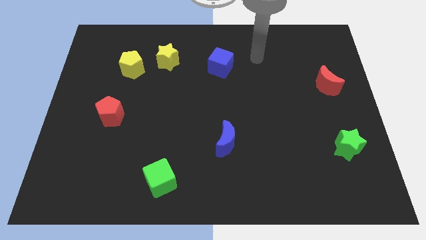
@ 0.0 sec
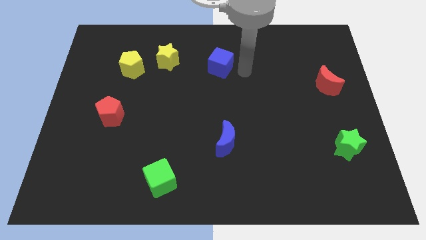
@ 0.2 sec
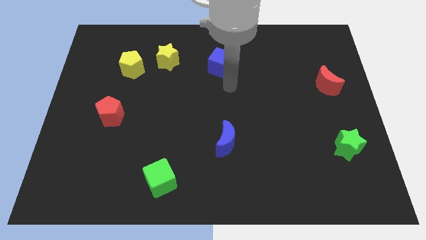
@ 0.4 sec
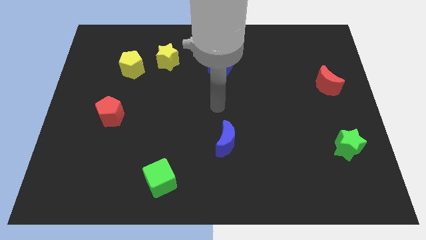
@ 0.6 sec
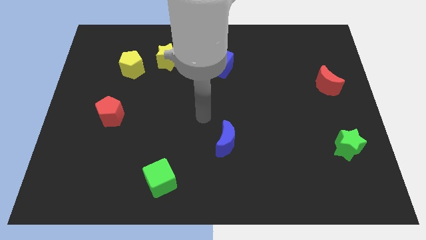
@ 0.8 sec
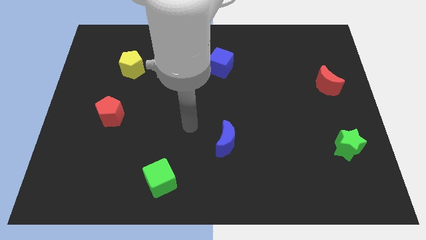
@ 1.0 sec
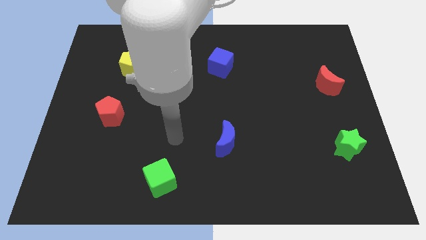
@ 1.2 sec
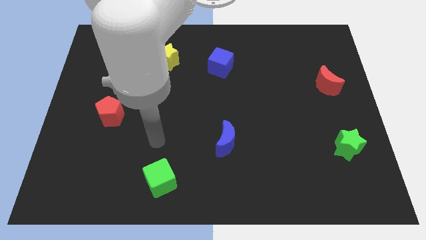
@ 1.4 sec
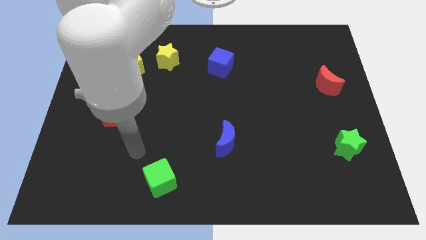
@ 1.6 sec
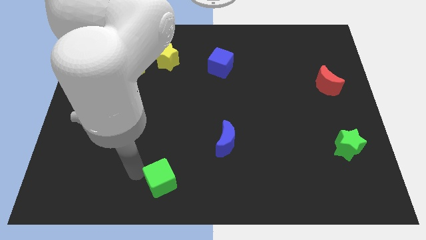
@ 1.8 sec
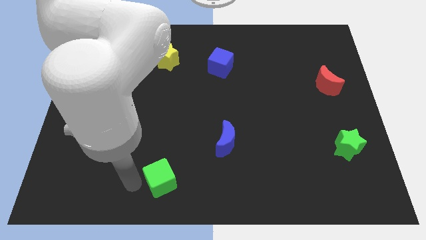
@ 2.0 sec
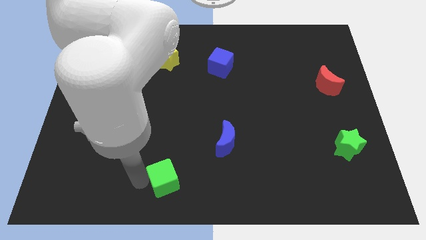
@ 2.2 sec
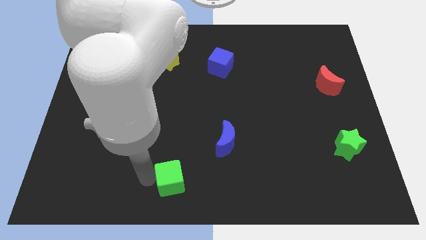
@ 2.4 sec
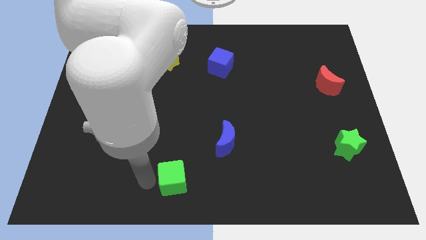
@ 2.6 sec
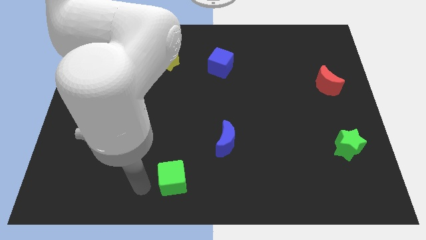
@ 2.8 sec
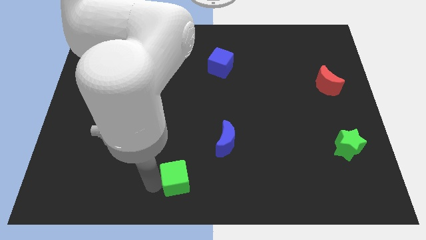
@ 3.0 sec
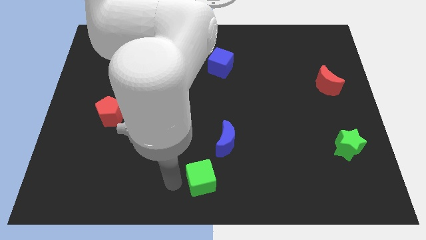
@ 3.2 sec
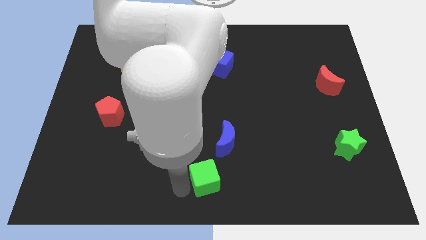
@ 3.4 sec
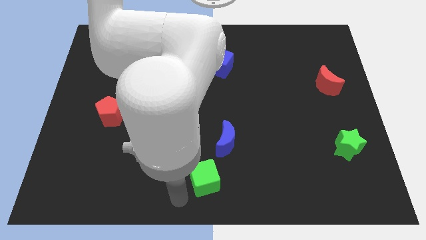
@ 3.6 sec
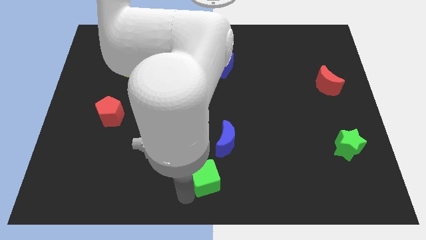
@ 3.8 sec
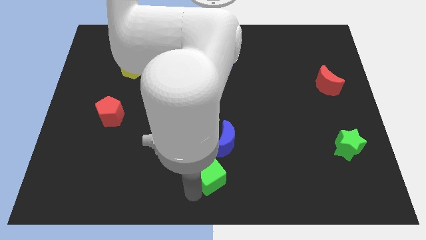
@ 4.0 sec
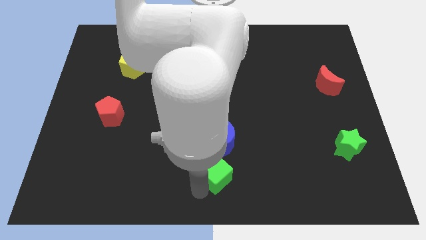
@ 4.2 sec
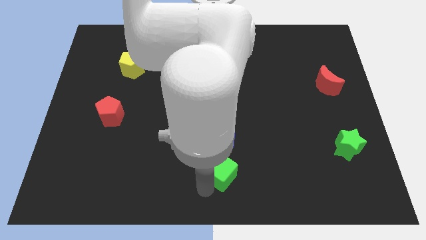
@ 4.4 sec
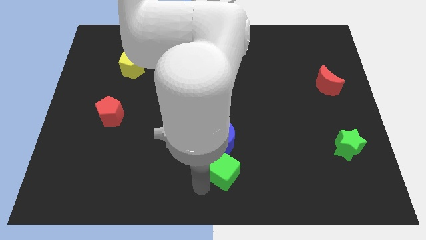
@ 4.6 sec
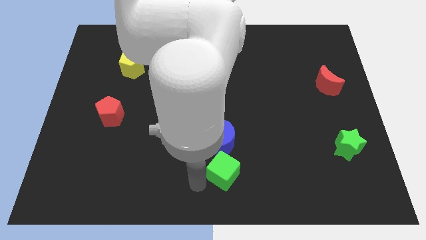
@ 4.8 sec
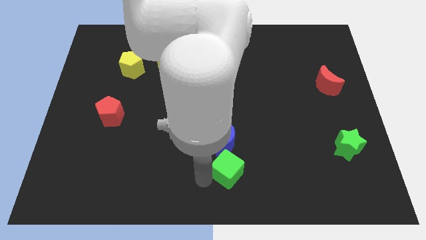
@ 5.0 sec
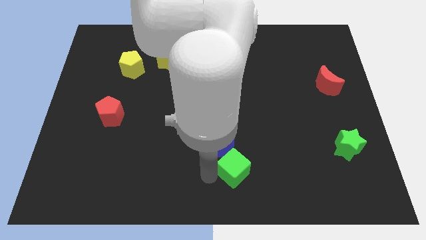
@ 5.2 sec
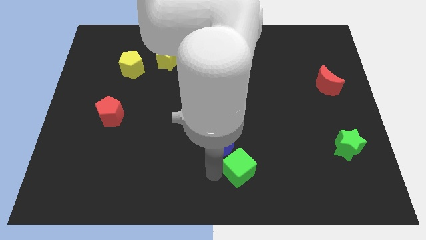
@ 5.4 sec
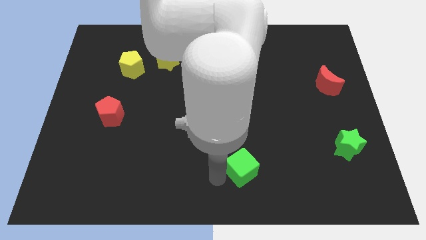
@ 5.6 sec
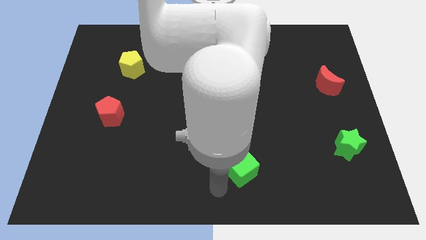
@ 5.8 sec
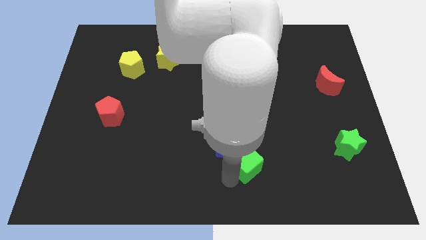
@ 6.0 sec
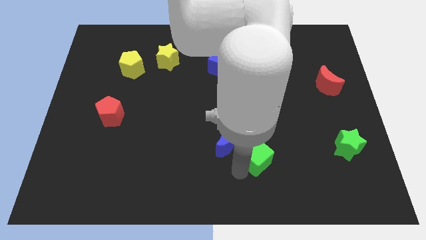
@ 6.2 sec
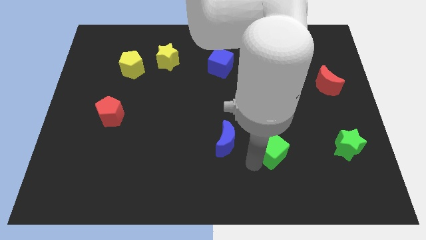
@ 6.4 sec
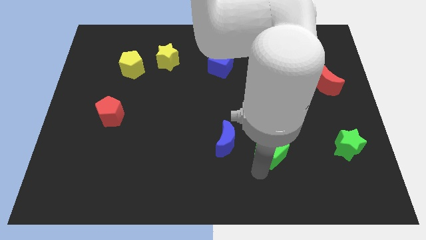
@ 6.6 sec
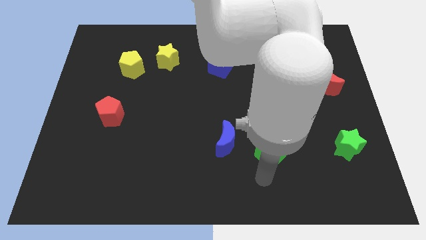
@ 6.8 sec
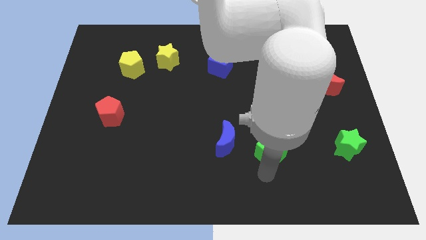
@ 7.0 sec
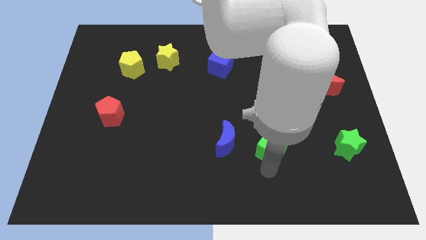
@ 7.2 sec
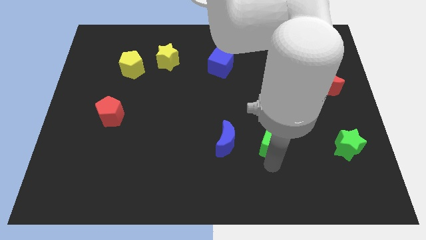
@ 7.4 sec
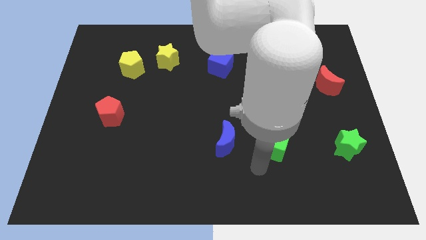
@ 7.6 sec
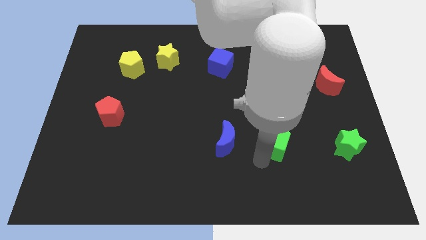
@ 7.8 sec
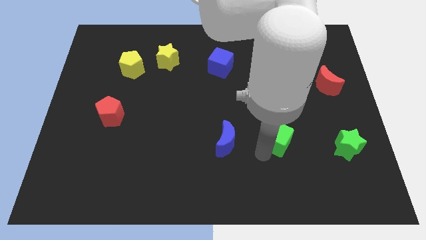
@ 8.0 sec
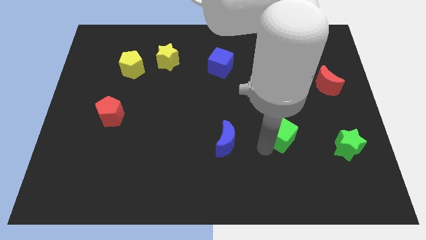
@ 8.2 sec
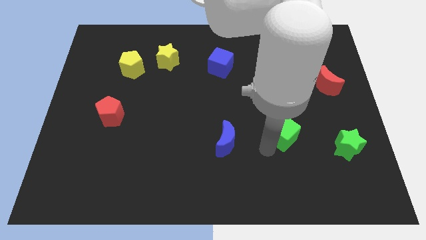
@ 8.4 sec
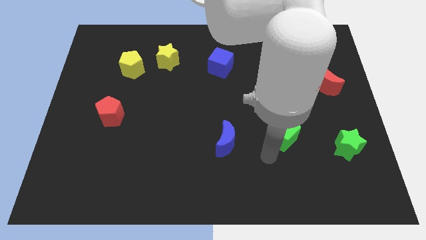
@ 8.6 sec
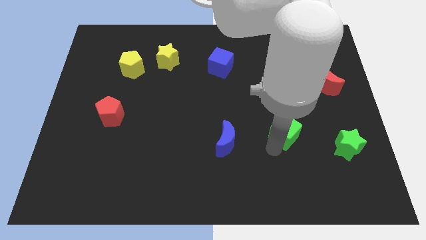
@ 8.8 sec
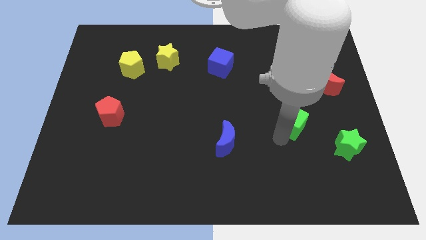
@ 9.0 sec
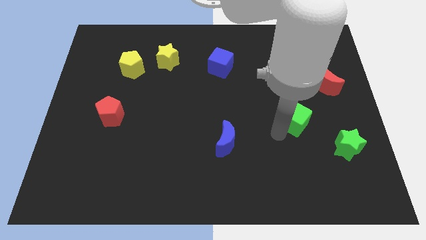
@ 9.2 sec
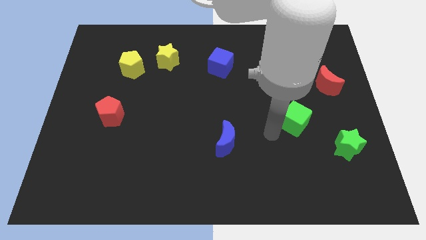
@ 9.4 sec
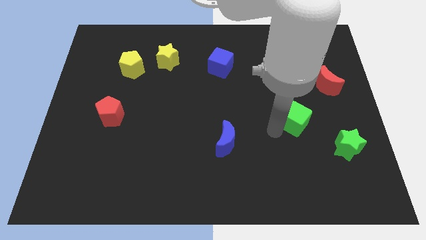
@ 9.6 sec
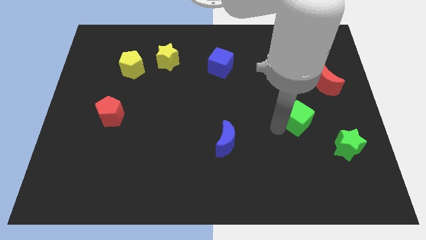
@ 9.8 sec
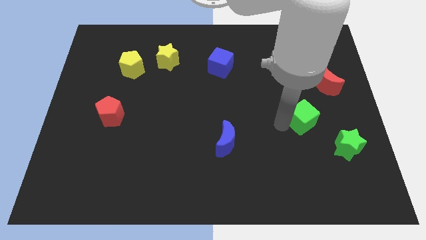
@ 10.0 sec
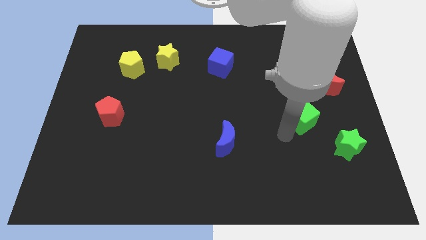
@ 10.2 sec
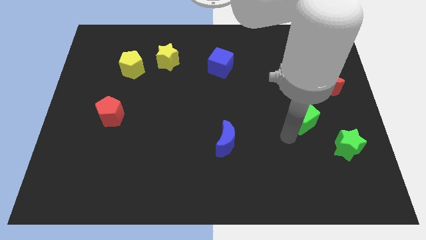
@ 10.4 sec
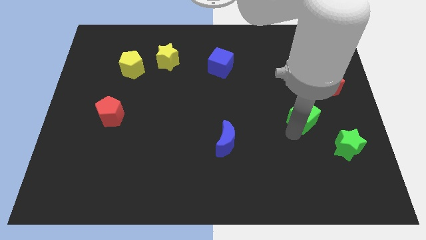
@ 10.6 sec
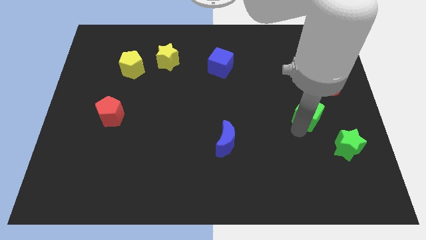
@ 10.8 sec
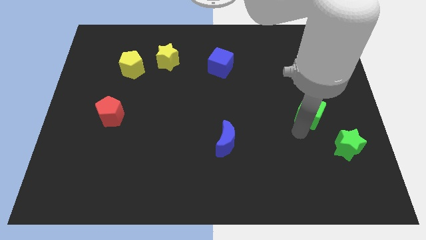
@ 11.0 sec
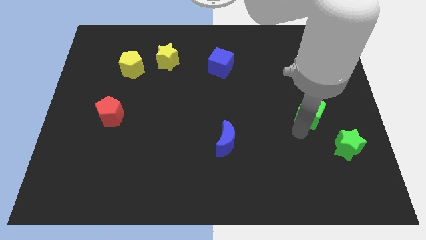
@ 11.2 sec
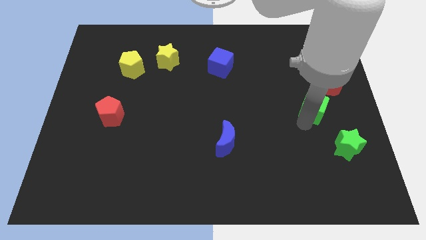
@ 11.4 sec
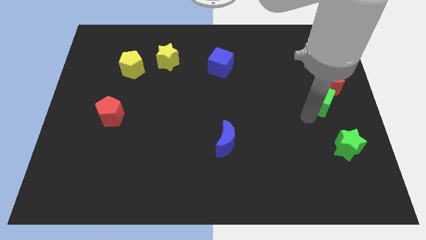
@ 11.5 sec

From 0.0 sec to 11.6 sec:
push the green cube close to the red moon

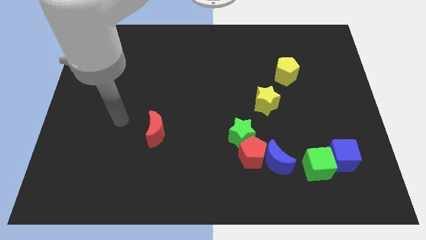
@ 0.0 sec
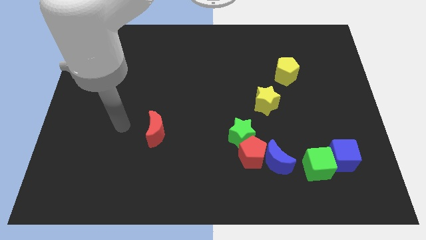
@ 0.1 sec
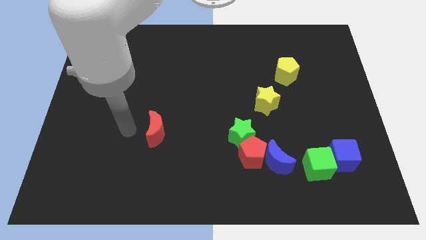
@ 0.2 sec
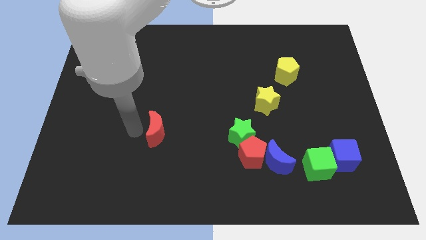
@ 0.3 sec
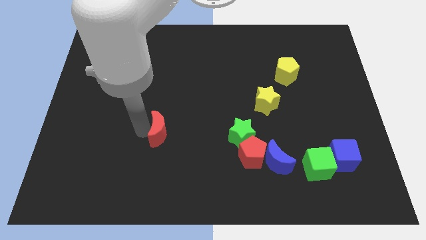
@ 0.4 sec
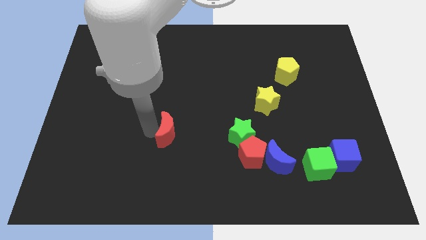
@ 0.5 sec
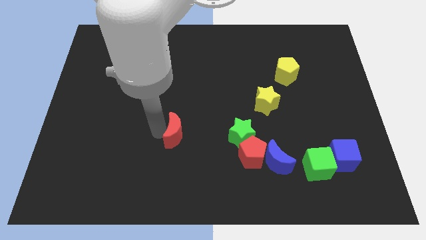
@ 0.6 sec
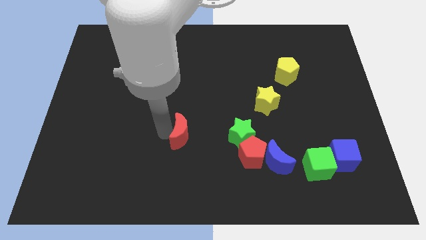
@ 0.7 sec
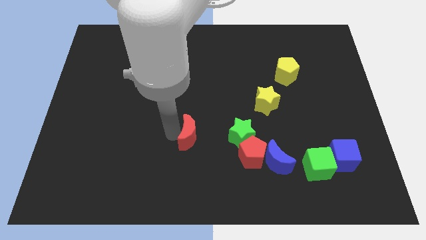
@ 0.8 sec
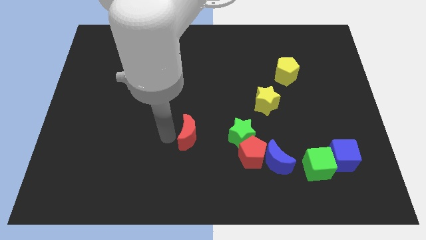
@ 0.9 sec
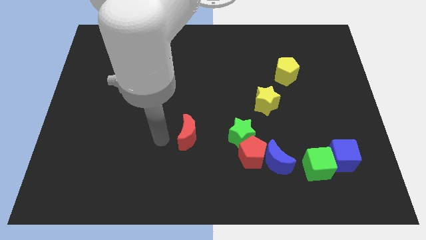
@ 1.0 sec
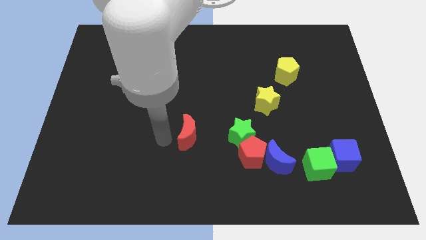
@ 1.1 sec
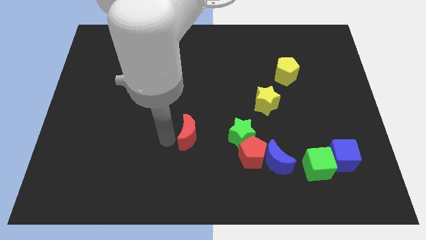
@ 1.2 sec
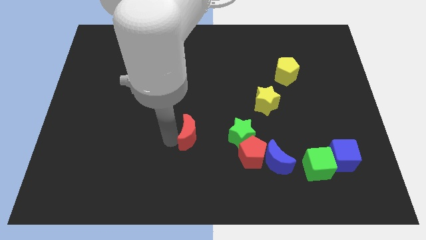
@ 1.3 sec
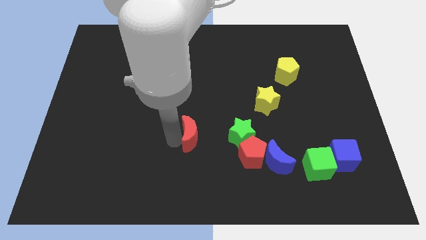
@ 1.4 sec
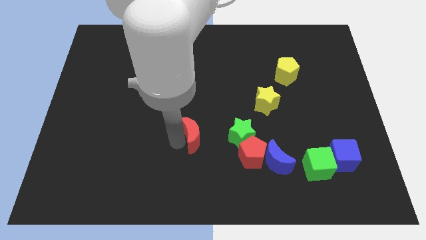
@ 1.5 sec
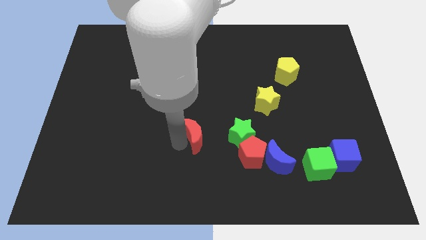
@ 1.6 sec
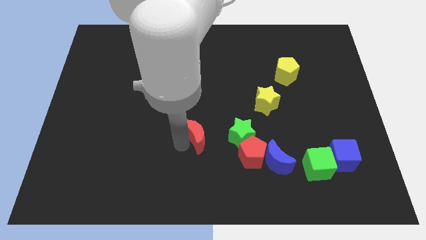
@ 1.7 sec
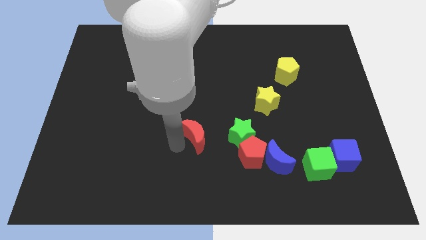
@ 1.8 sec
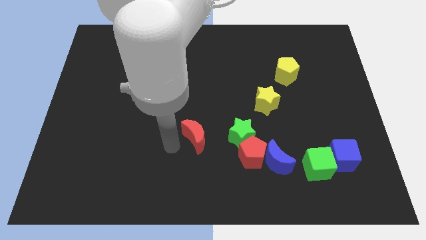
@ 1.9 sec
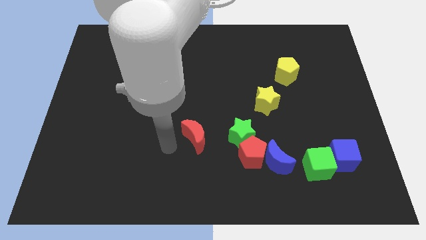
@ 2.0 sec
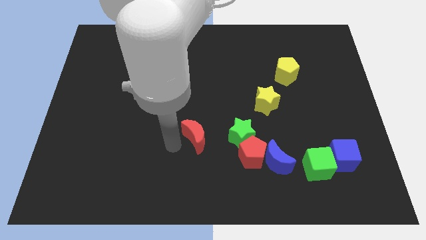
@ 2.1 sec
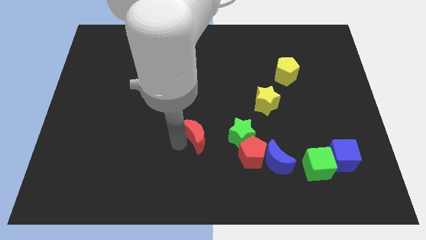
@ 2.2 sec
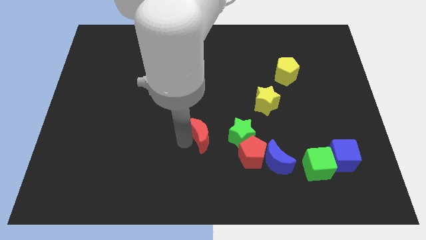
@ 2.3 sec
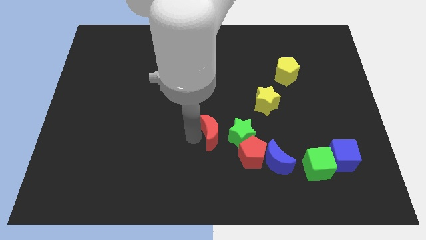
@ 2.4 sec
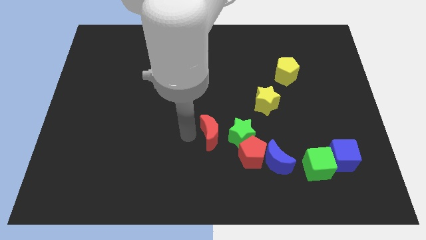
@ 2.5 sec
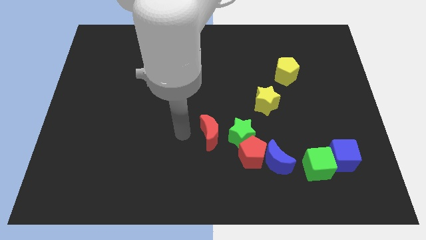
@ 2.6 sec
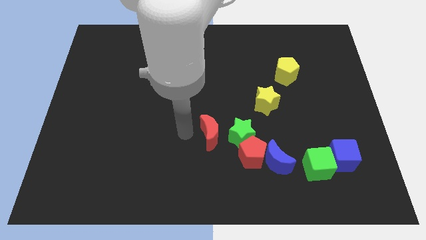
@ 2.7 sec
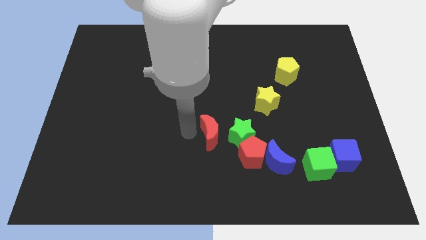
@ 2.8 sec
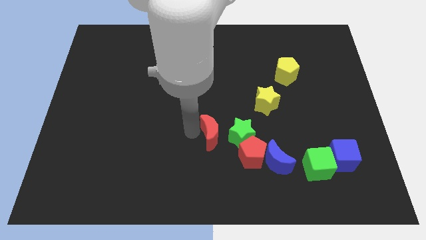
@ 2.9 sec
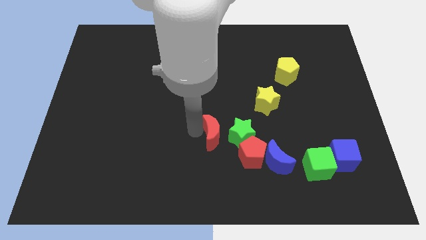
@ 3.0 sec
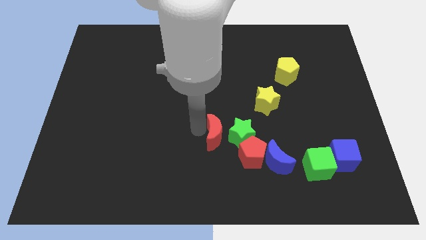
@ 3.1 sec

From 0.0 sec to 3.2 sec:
move the red moon to the green star
